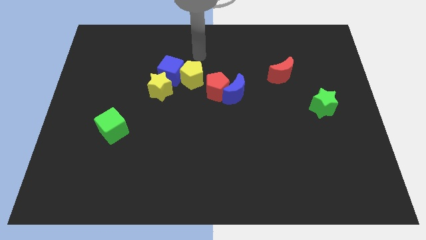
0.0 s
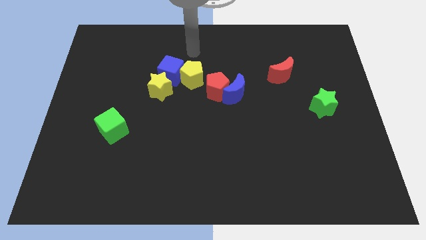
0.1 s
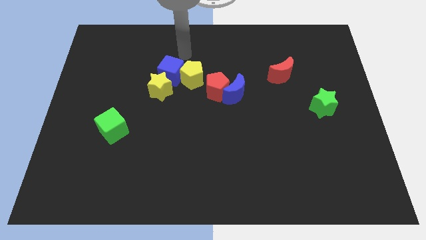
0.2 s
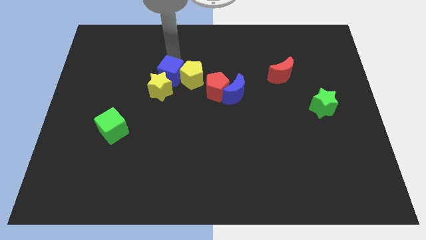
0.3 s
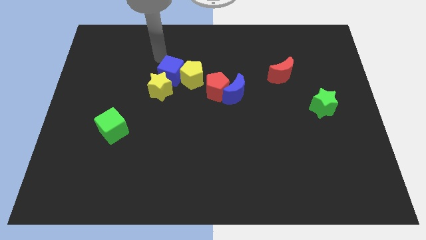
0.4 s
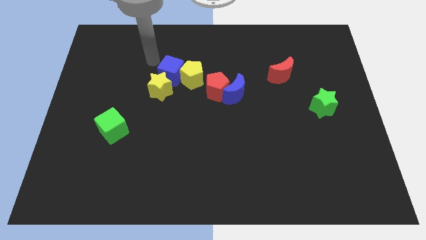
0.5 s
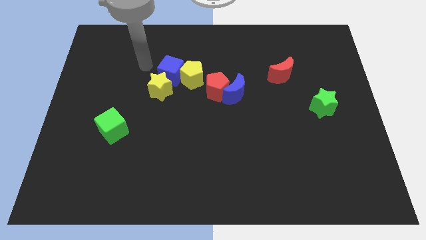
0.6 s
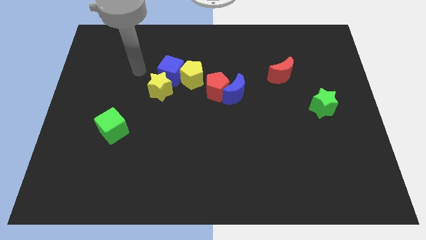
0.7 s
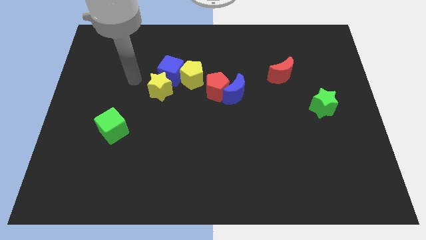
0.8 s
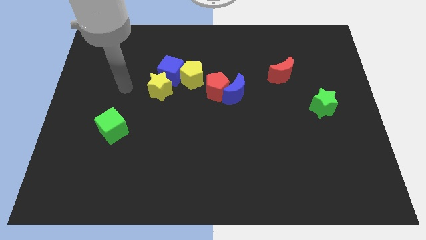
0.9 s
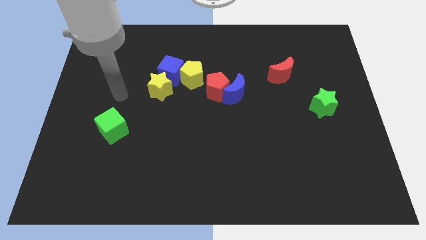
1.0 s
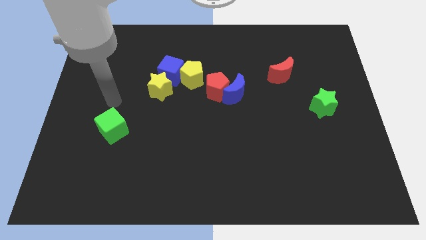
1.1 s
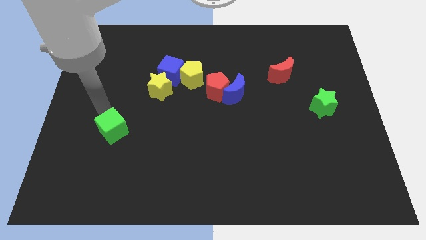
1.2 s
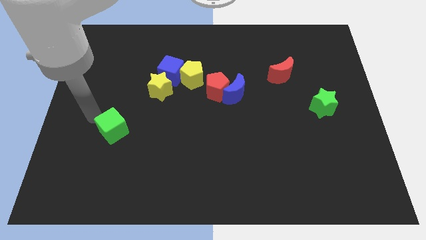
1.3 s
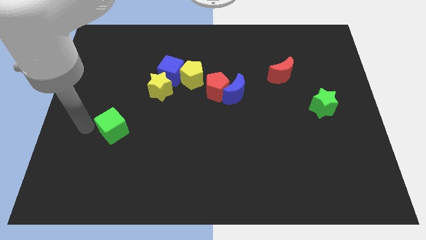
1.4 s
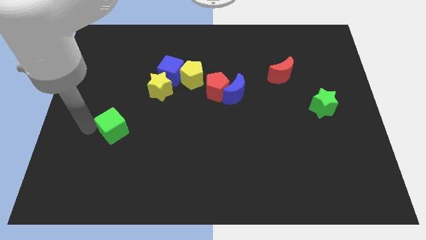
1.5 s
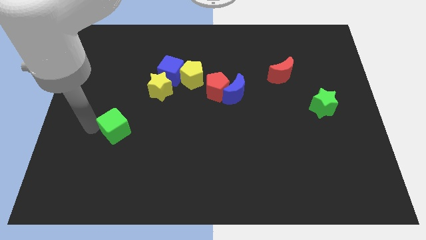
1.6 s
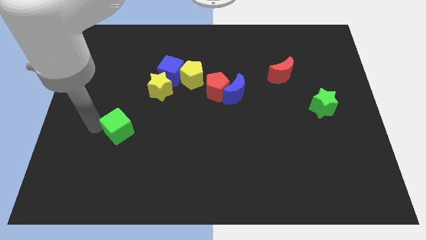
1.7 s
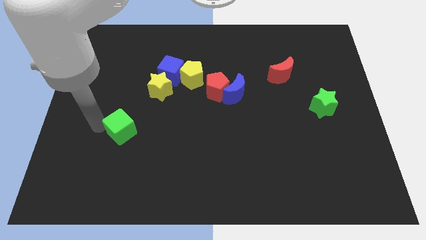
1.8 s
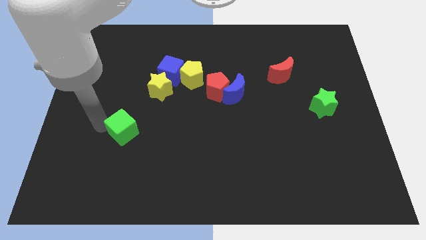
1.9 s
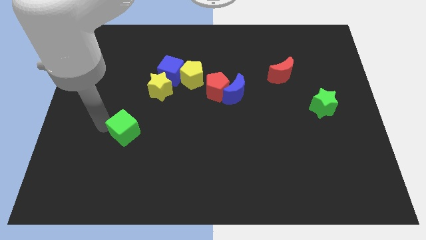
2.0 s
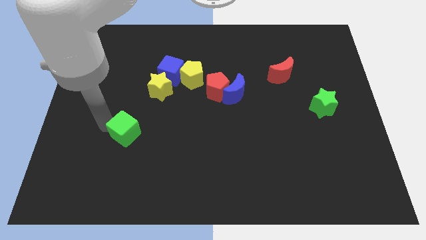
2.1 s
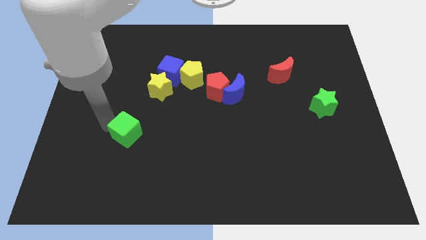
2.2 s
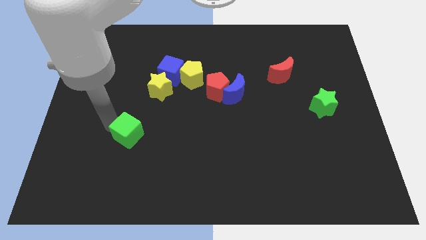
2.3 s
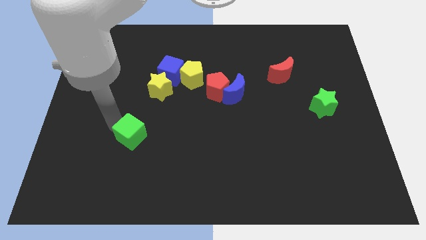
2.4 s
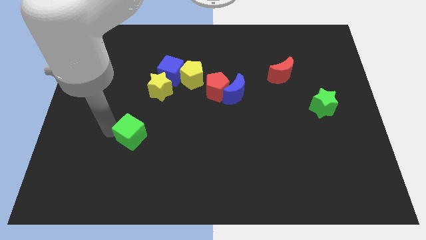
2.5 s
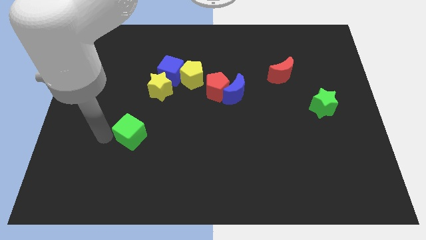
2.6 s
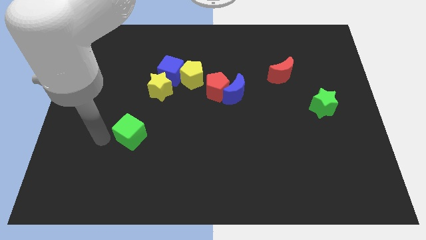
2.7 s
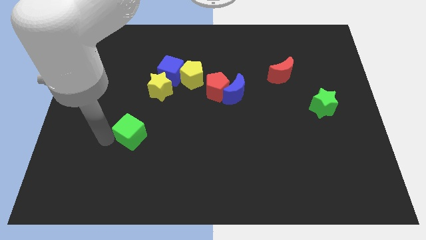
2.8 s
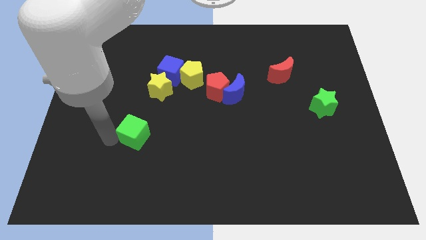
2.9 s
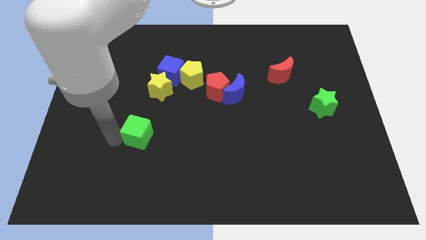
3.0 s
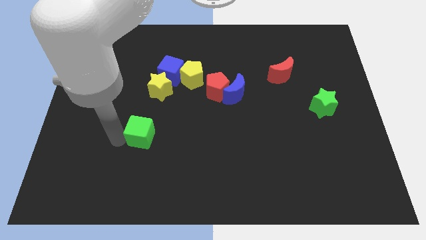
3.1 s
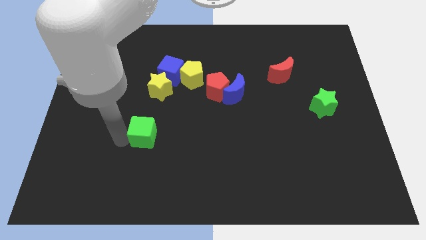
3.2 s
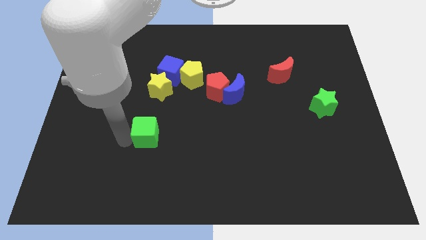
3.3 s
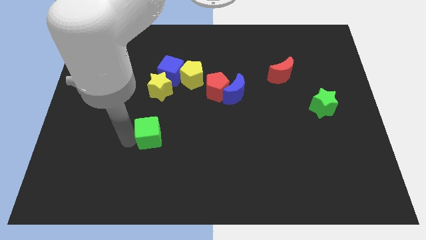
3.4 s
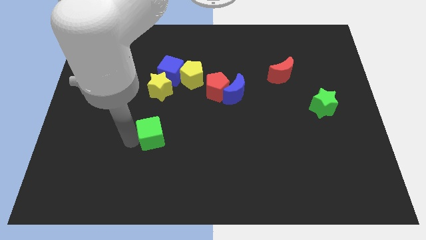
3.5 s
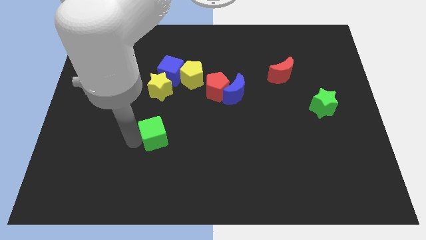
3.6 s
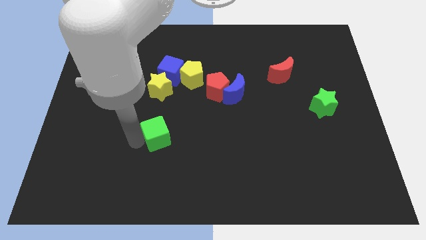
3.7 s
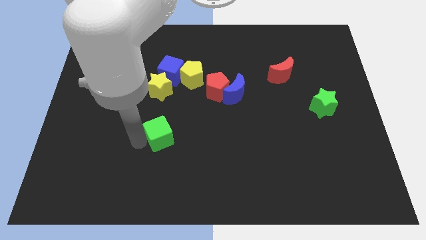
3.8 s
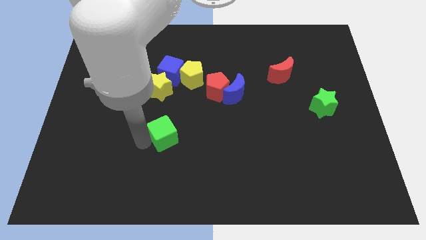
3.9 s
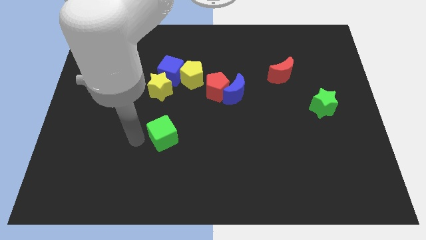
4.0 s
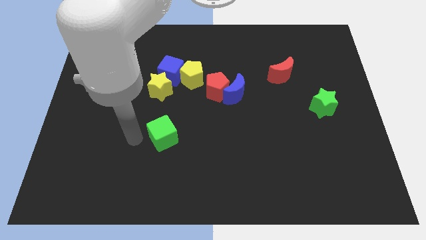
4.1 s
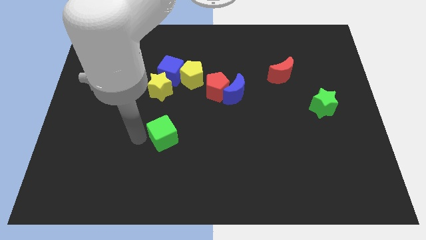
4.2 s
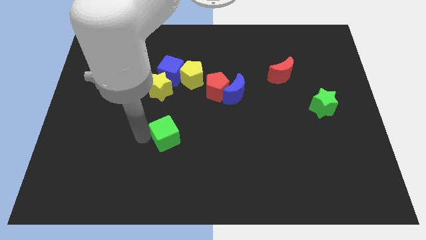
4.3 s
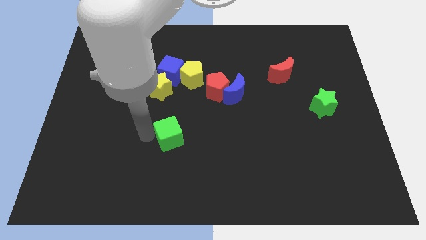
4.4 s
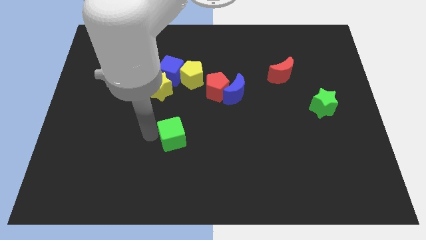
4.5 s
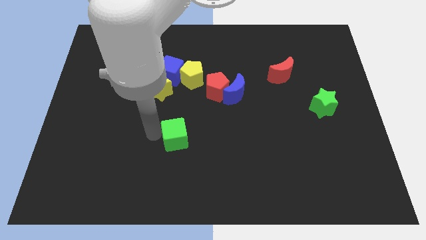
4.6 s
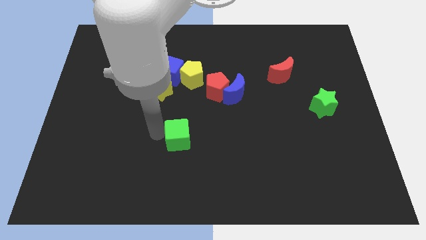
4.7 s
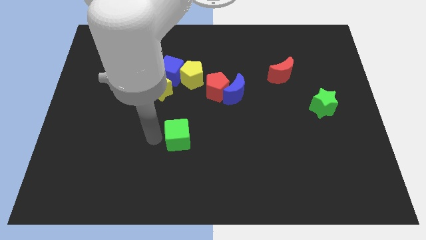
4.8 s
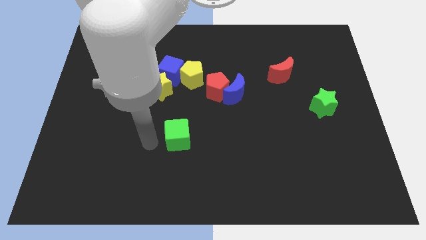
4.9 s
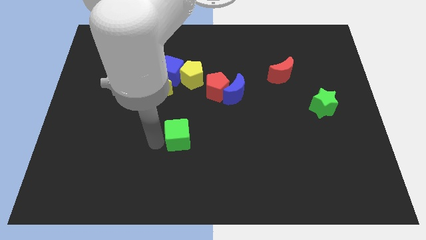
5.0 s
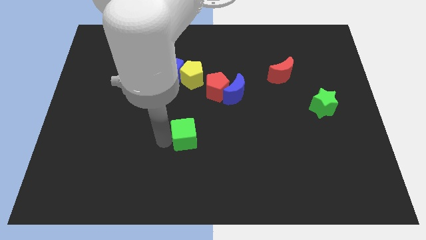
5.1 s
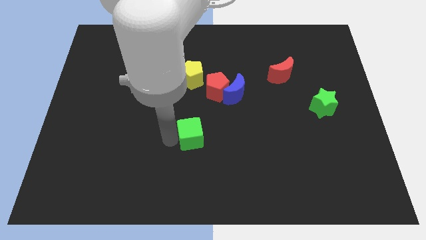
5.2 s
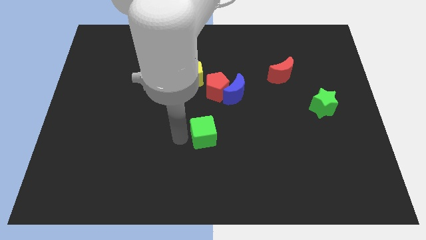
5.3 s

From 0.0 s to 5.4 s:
slide the green cube to the right

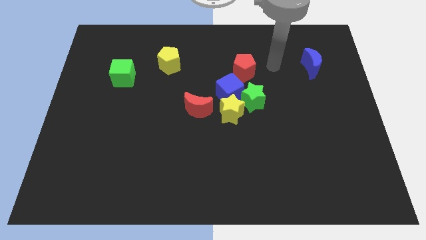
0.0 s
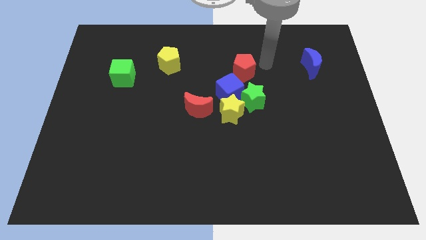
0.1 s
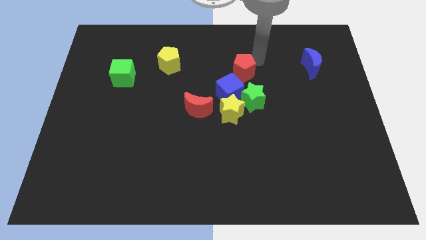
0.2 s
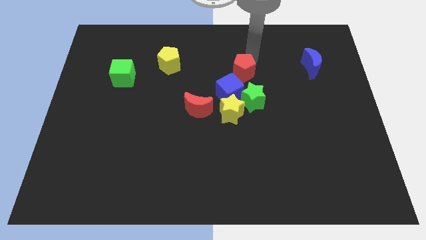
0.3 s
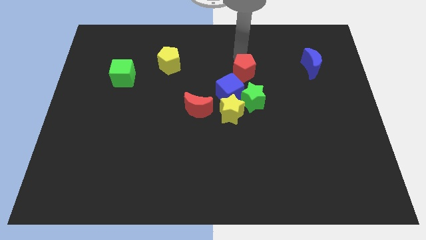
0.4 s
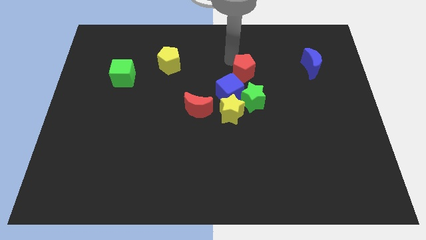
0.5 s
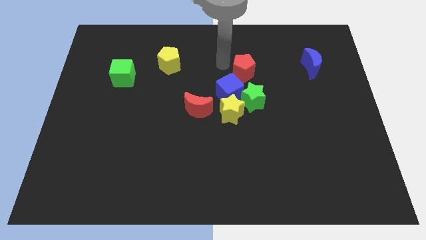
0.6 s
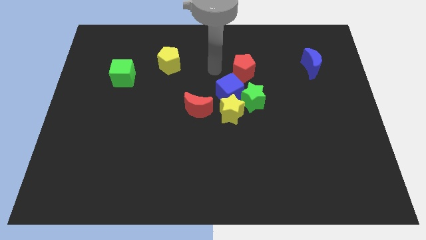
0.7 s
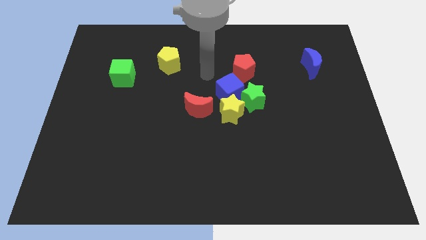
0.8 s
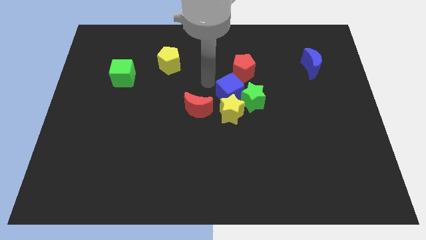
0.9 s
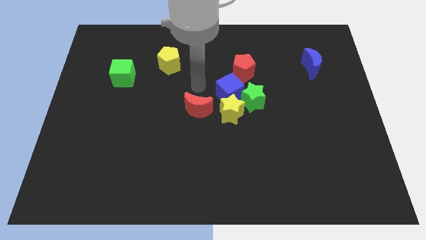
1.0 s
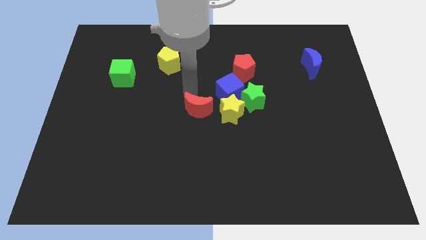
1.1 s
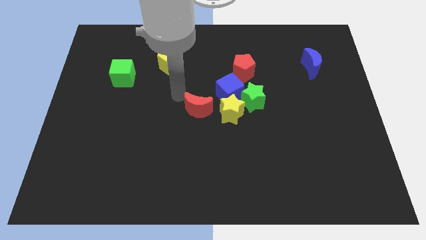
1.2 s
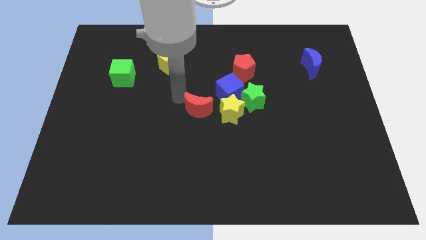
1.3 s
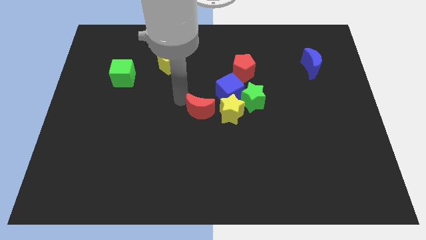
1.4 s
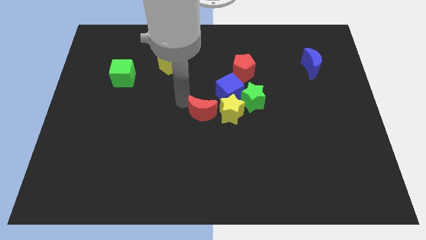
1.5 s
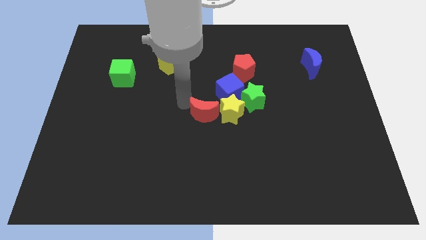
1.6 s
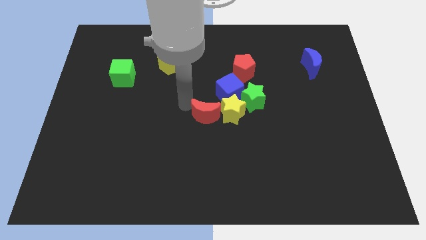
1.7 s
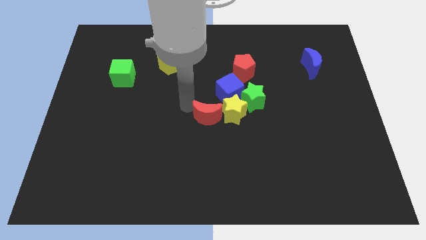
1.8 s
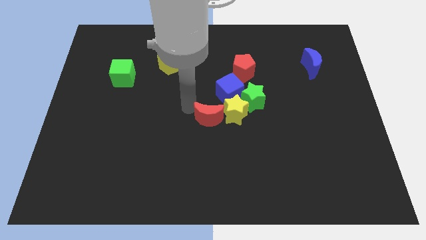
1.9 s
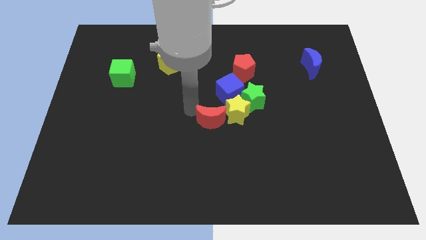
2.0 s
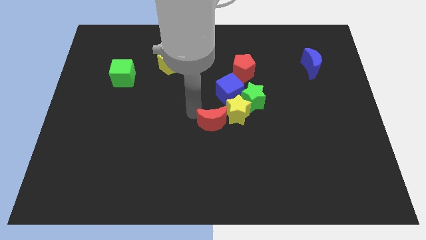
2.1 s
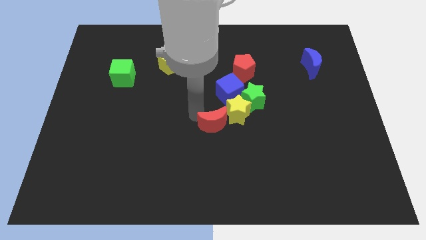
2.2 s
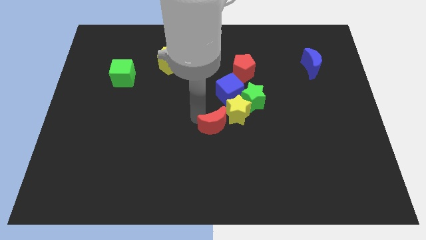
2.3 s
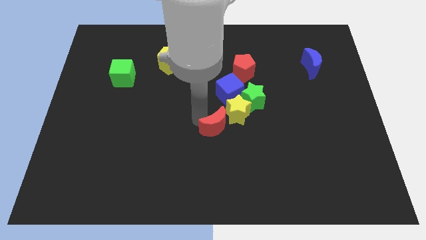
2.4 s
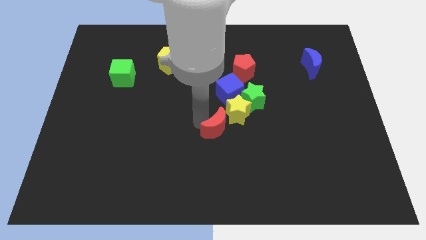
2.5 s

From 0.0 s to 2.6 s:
slightly push the red moon down and then right

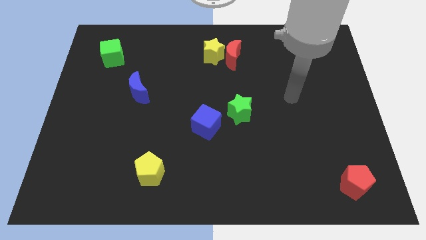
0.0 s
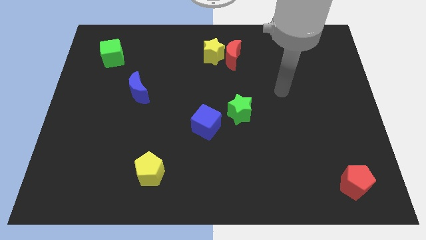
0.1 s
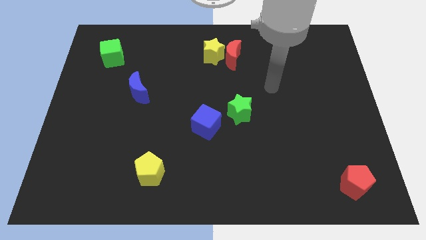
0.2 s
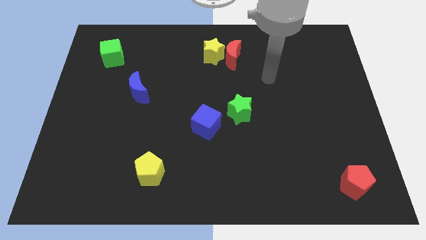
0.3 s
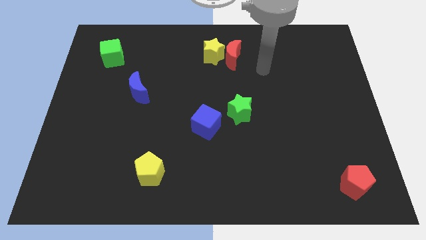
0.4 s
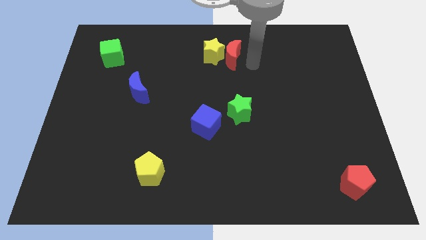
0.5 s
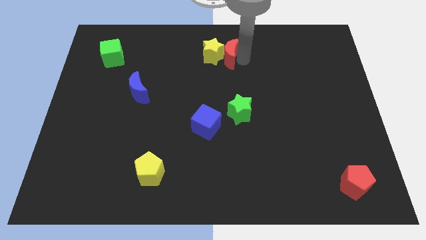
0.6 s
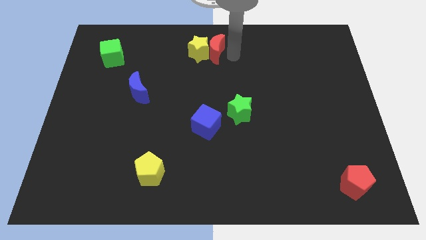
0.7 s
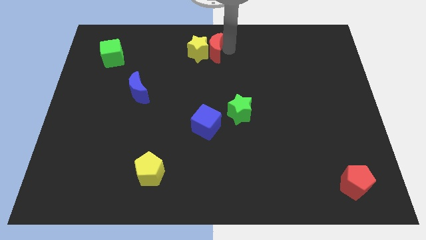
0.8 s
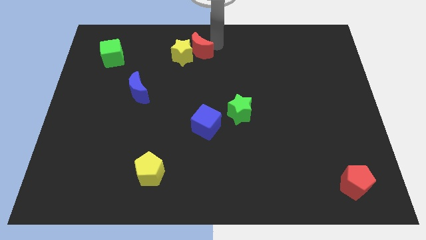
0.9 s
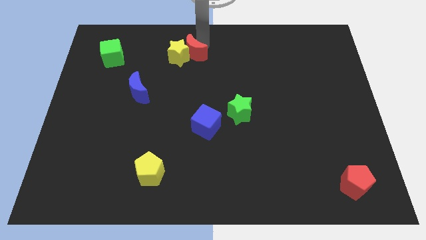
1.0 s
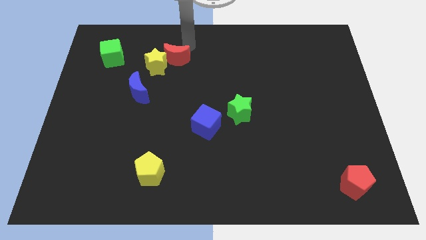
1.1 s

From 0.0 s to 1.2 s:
move the yellow star downwards and left diagonally a little
